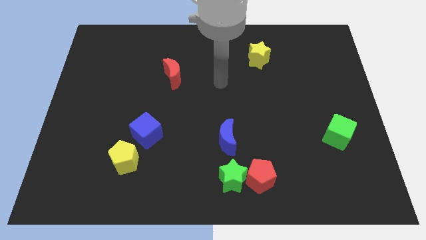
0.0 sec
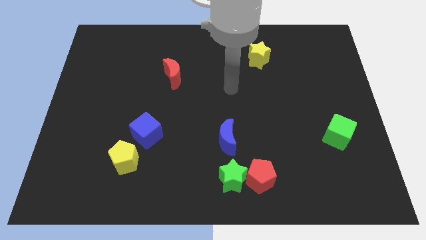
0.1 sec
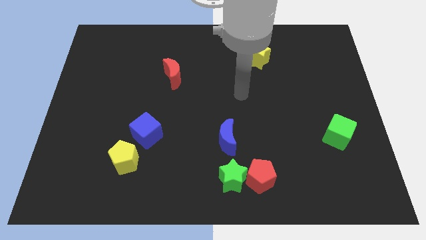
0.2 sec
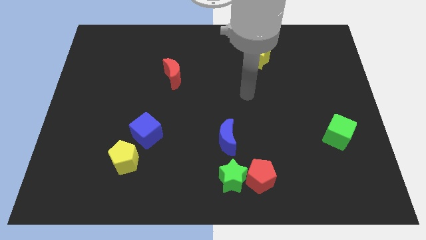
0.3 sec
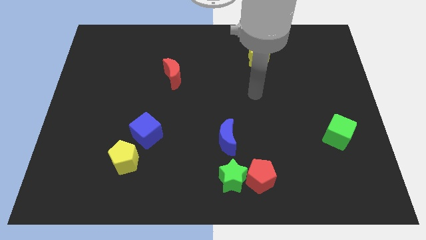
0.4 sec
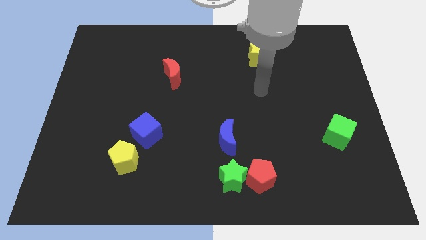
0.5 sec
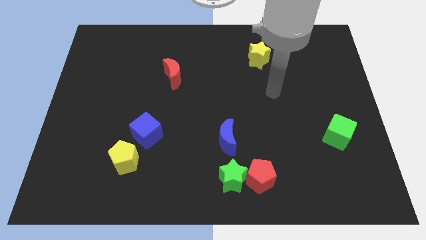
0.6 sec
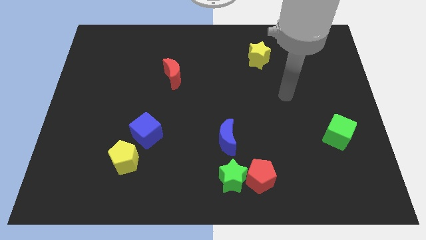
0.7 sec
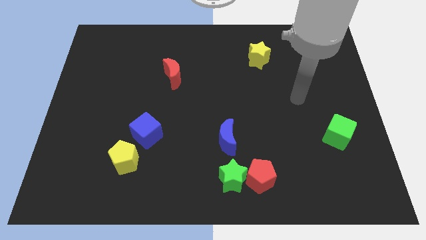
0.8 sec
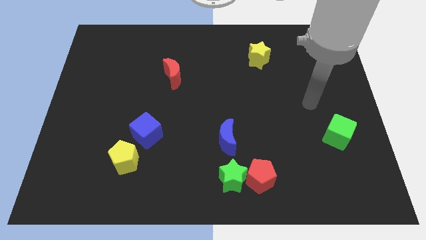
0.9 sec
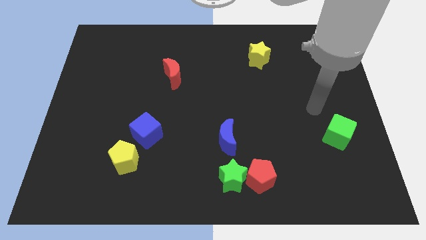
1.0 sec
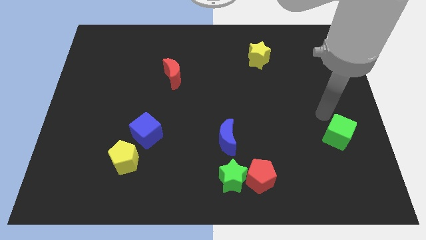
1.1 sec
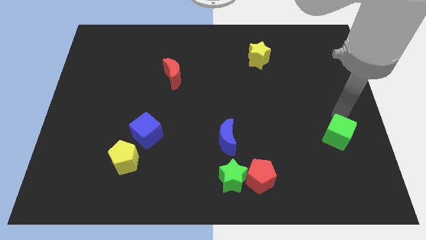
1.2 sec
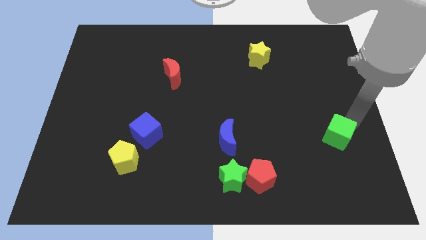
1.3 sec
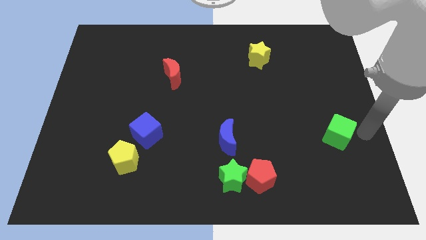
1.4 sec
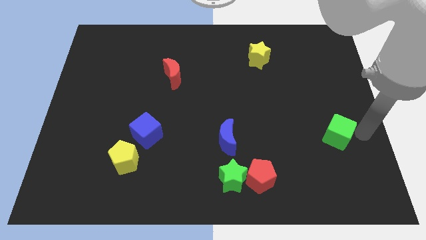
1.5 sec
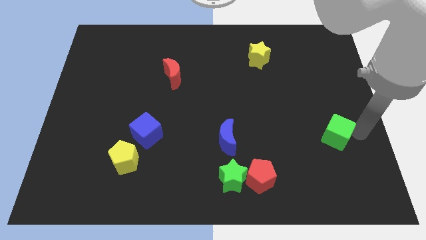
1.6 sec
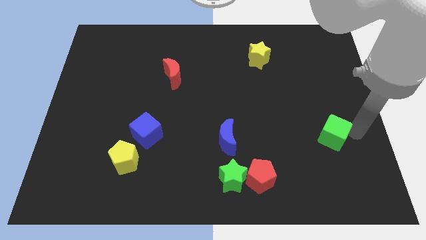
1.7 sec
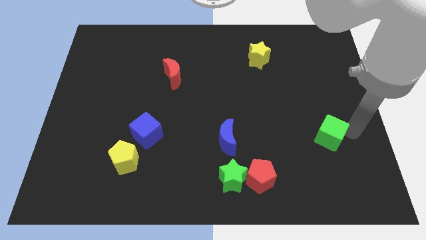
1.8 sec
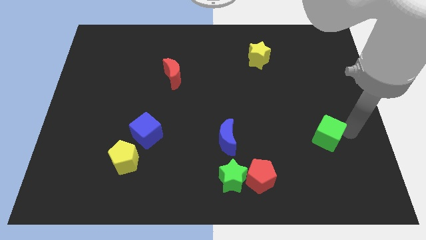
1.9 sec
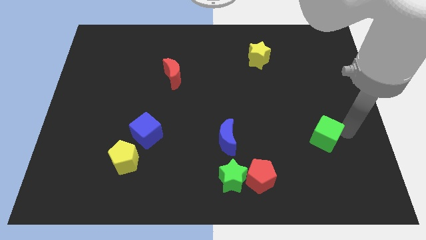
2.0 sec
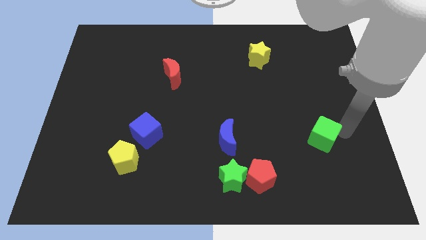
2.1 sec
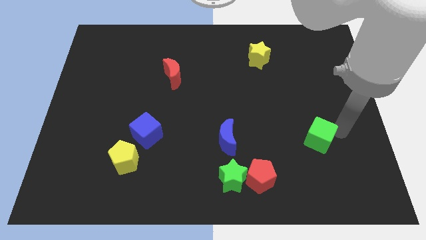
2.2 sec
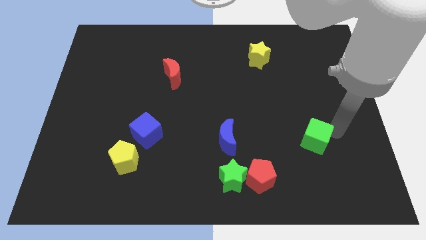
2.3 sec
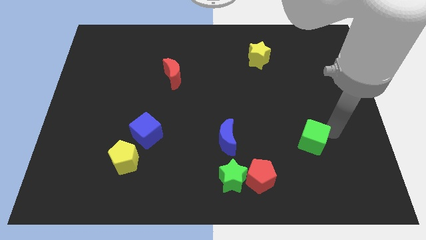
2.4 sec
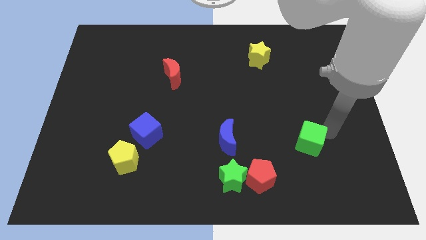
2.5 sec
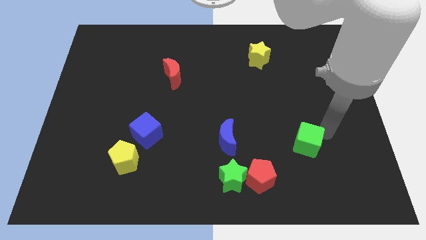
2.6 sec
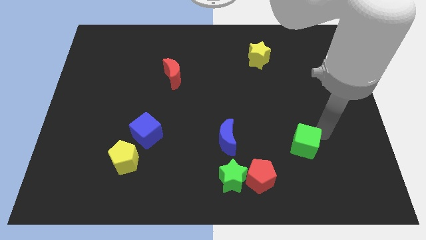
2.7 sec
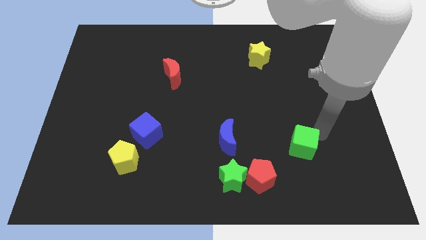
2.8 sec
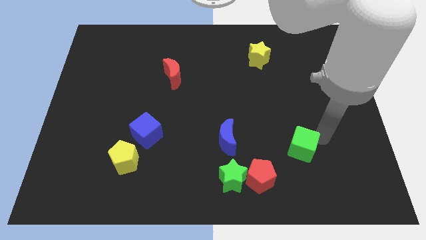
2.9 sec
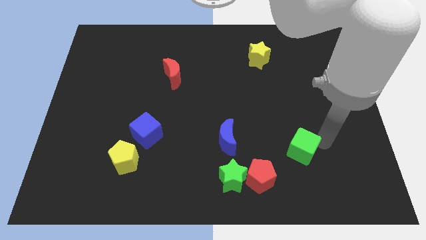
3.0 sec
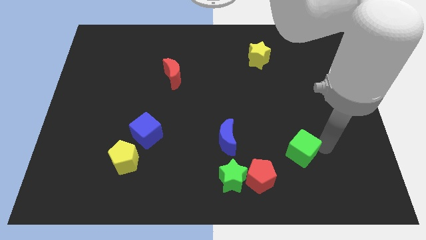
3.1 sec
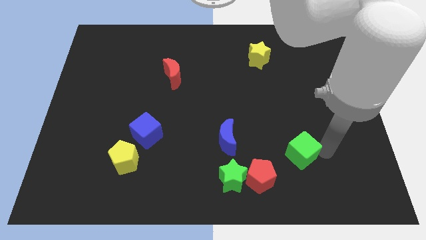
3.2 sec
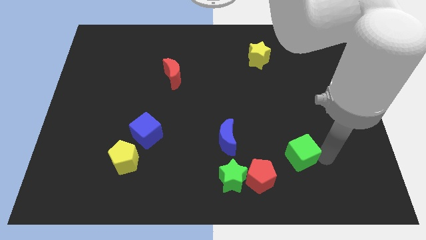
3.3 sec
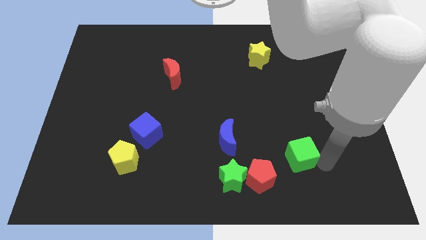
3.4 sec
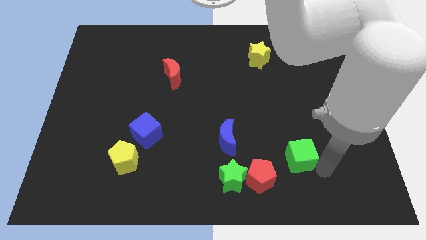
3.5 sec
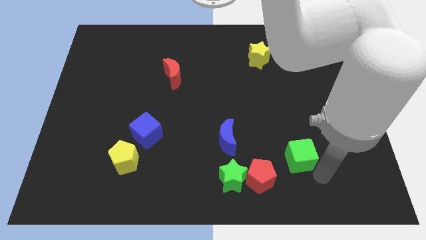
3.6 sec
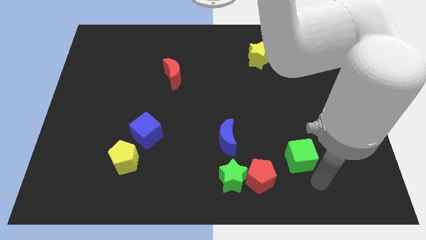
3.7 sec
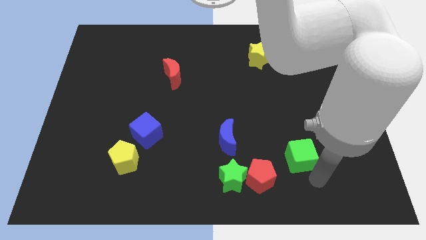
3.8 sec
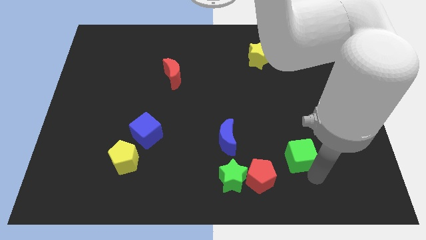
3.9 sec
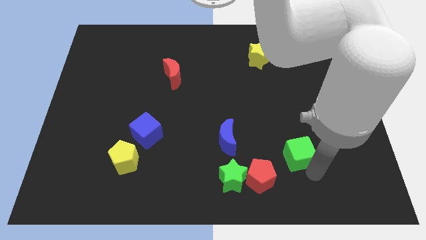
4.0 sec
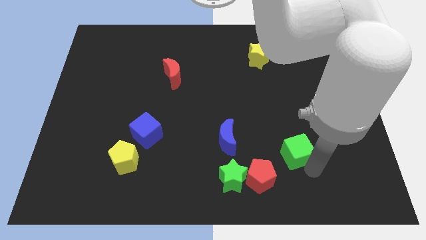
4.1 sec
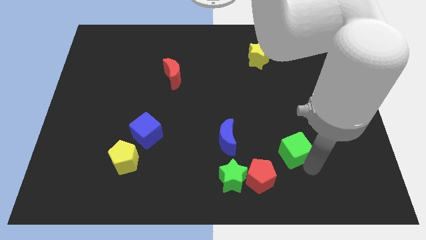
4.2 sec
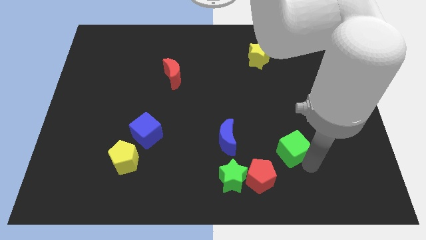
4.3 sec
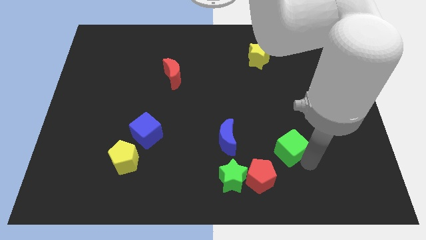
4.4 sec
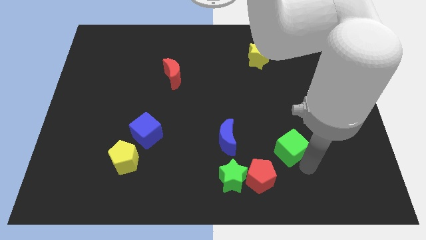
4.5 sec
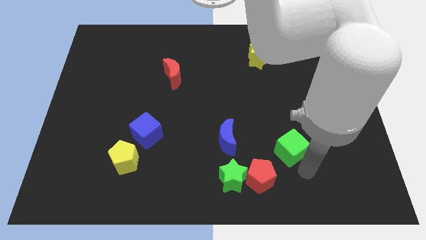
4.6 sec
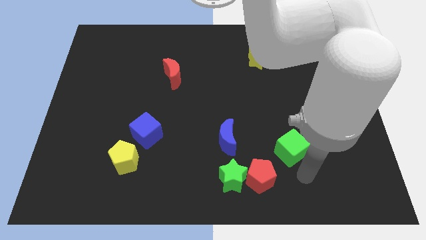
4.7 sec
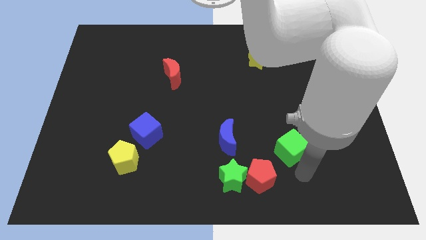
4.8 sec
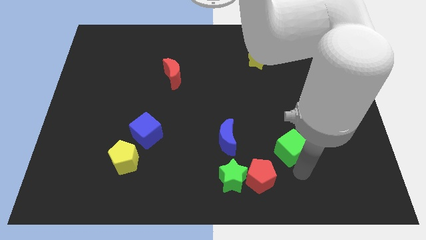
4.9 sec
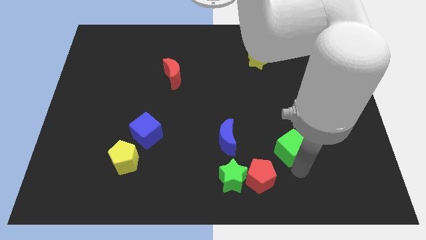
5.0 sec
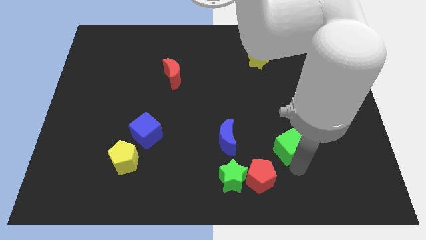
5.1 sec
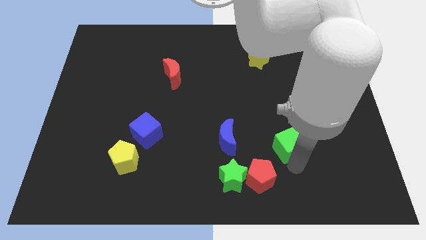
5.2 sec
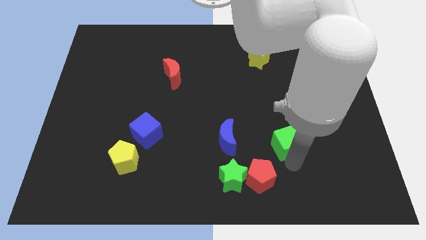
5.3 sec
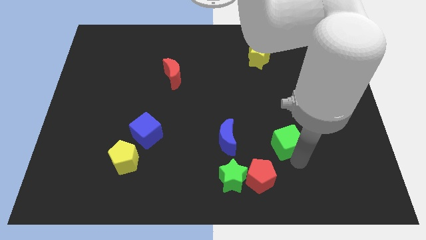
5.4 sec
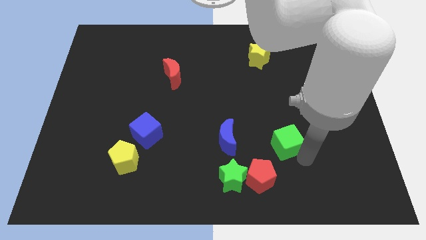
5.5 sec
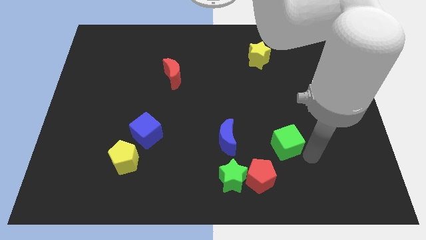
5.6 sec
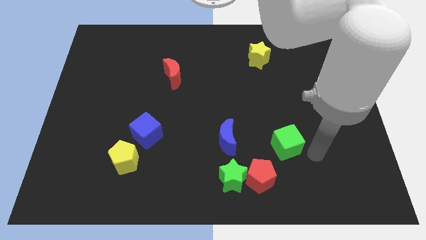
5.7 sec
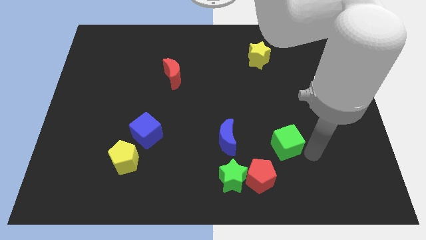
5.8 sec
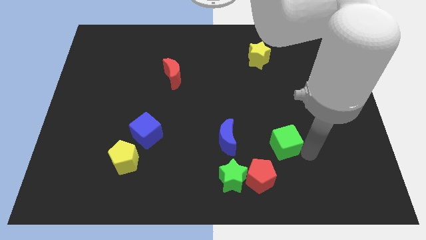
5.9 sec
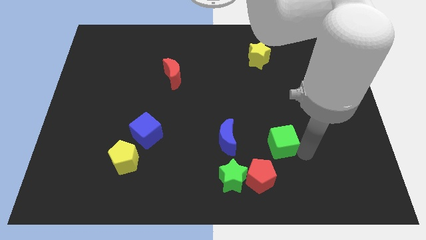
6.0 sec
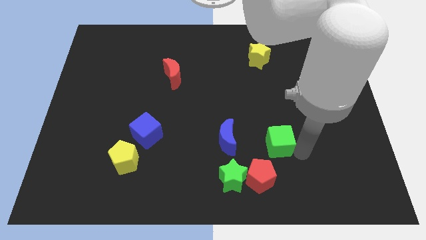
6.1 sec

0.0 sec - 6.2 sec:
move the green cube above the red pentagon

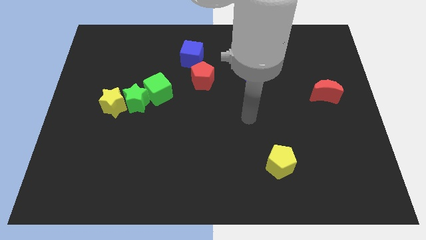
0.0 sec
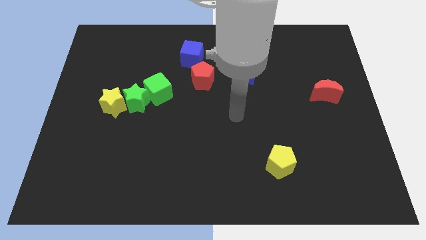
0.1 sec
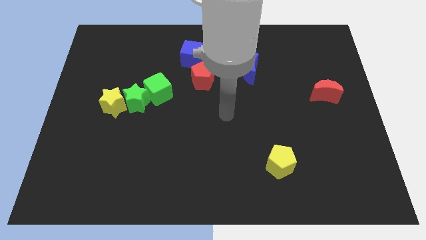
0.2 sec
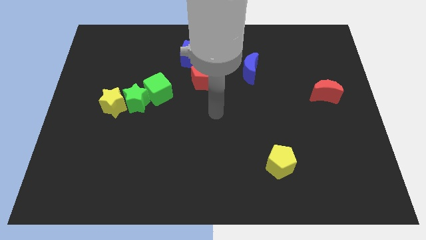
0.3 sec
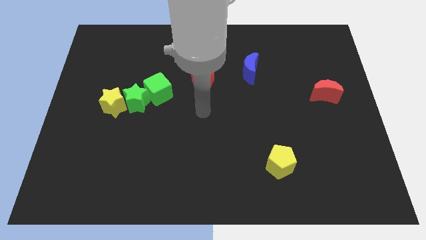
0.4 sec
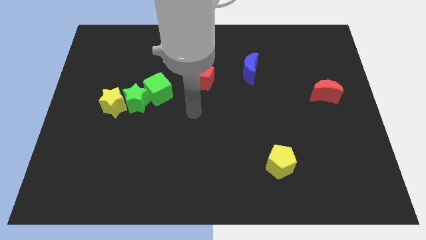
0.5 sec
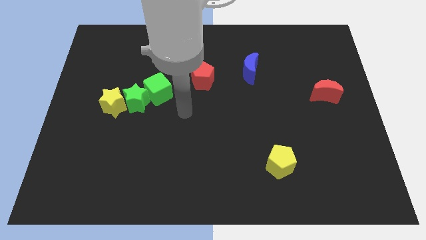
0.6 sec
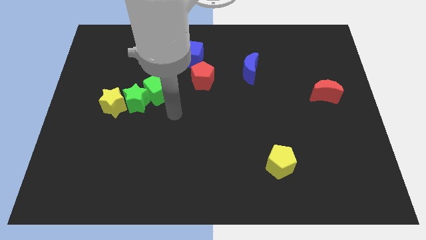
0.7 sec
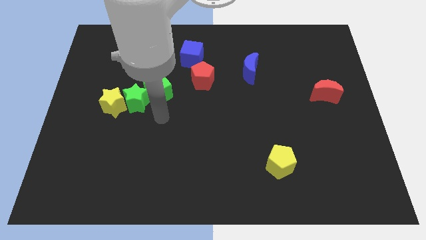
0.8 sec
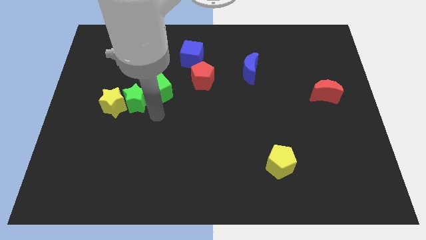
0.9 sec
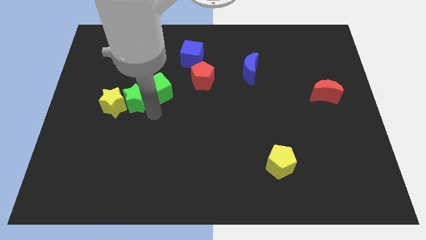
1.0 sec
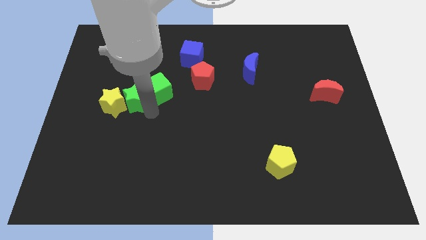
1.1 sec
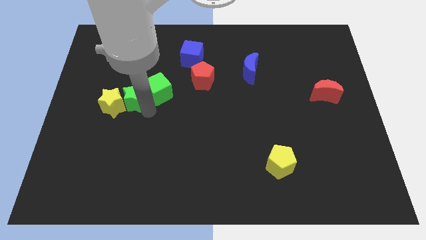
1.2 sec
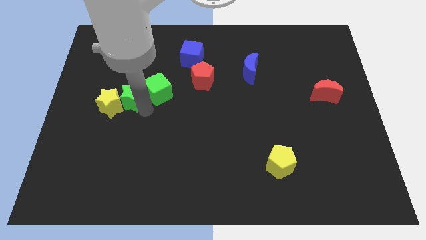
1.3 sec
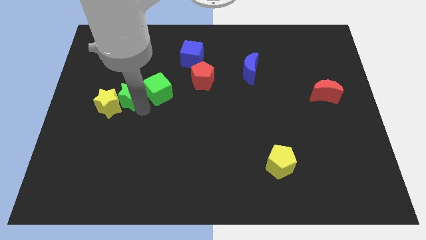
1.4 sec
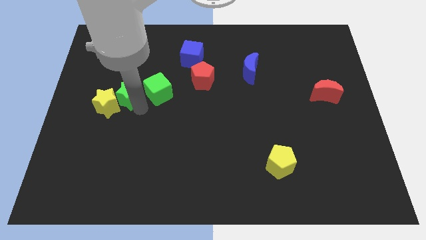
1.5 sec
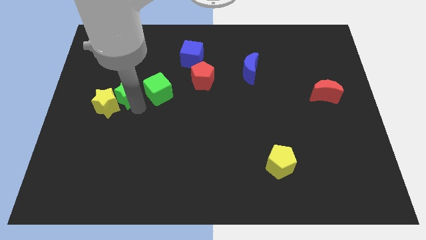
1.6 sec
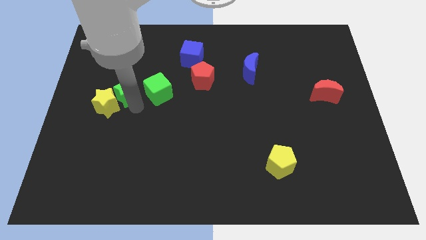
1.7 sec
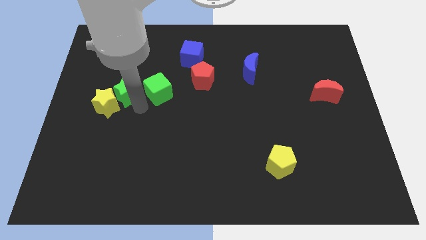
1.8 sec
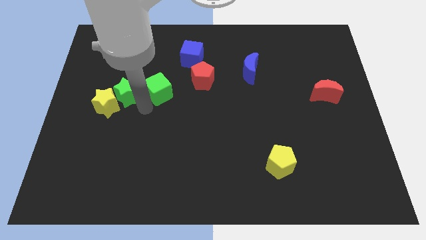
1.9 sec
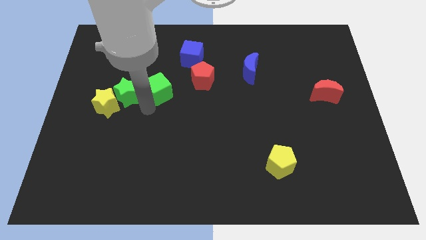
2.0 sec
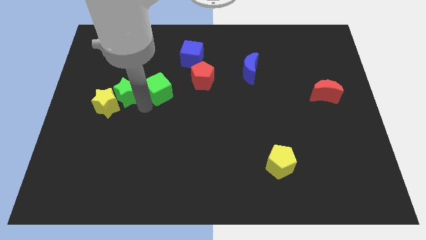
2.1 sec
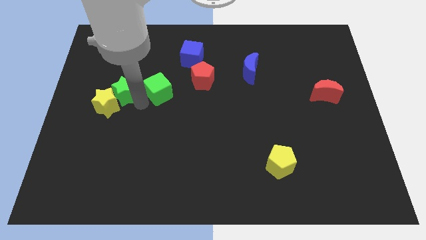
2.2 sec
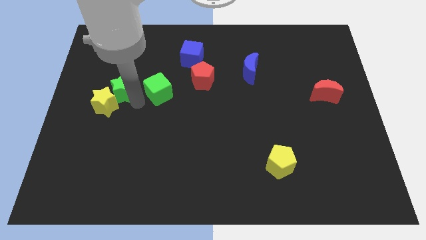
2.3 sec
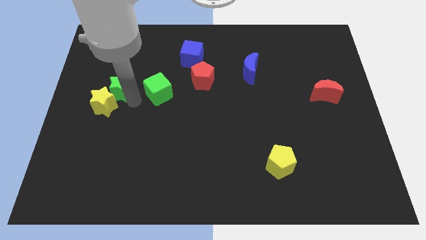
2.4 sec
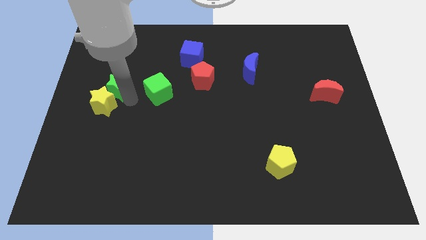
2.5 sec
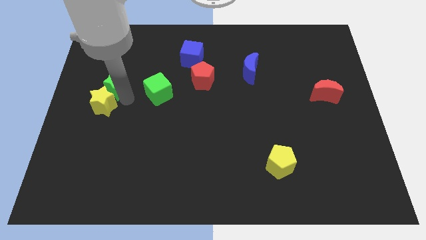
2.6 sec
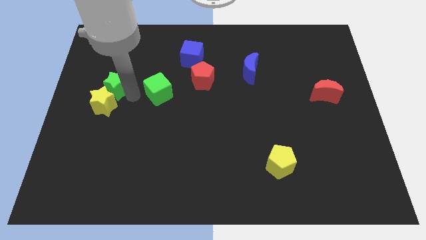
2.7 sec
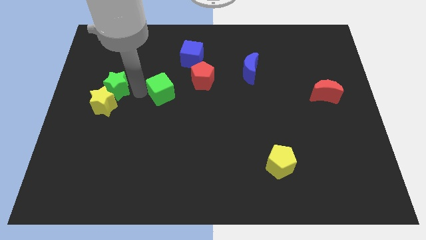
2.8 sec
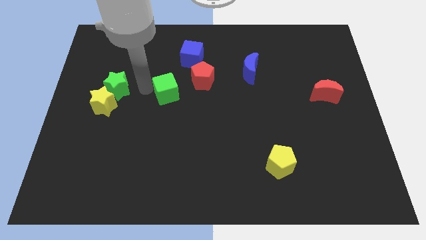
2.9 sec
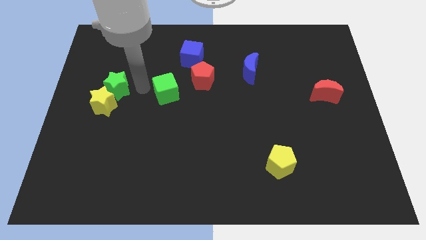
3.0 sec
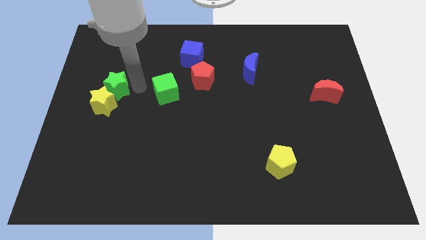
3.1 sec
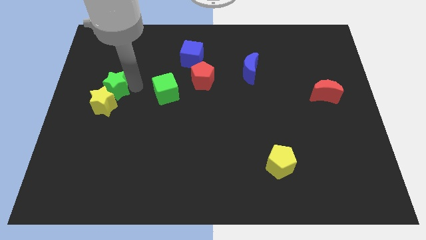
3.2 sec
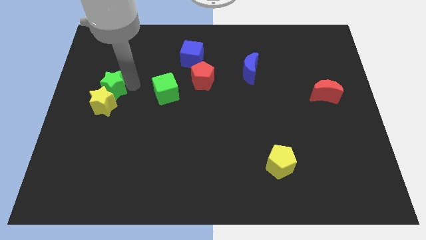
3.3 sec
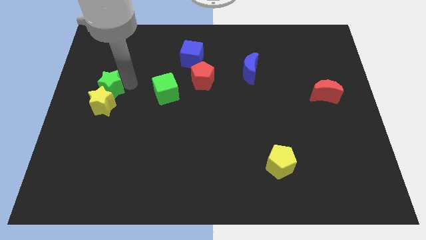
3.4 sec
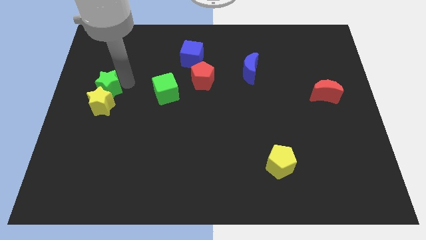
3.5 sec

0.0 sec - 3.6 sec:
move the green star to the top left of the yellow star
